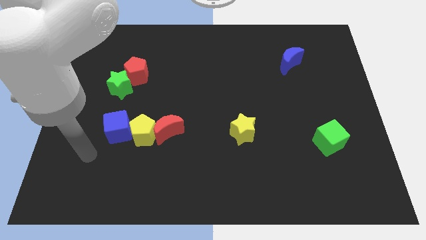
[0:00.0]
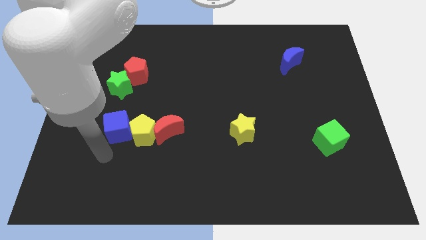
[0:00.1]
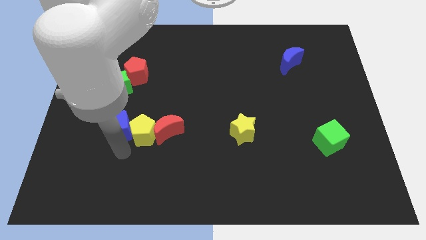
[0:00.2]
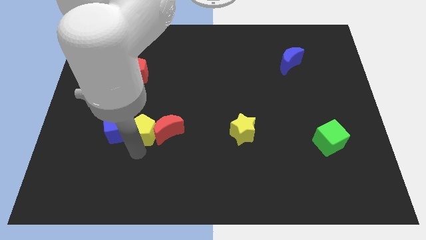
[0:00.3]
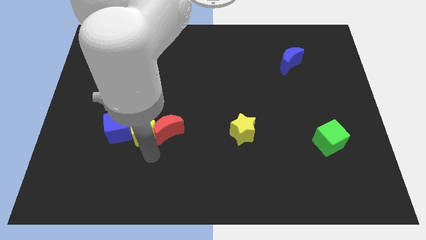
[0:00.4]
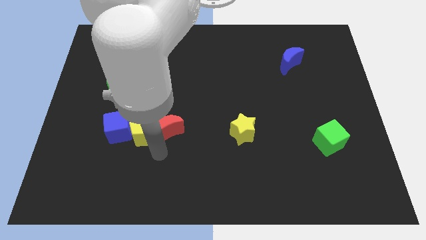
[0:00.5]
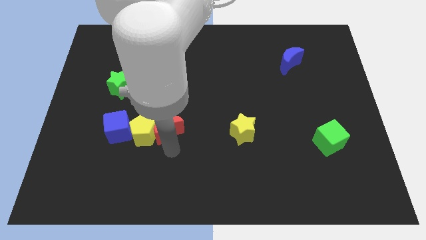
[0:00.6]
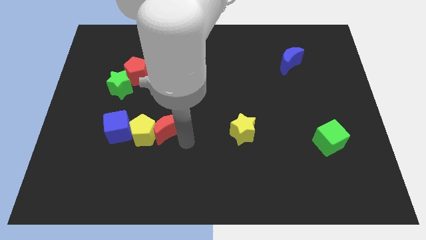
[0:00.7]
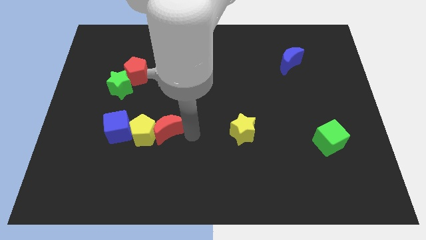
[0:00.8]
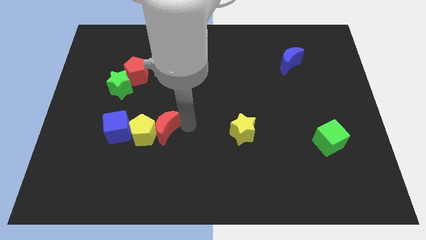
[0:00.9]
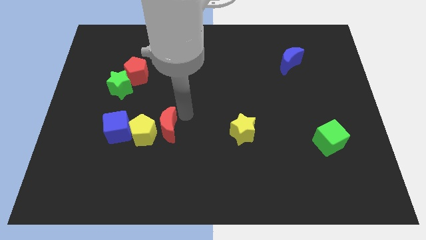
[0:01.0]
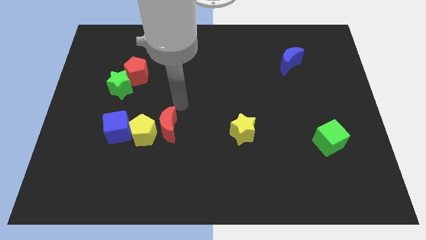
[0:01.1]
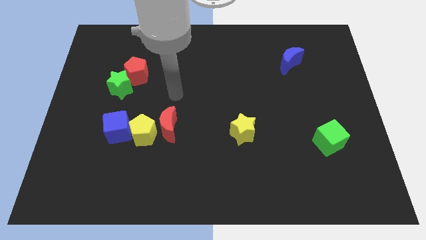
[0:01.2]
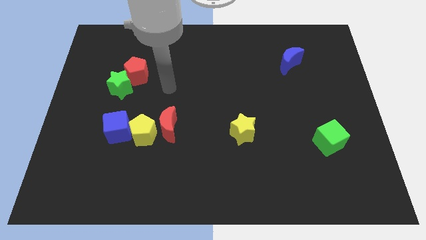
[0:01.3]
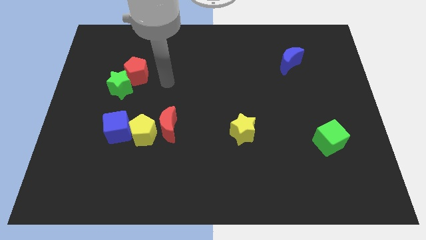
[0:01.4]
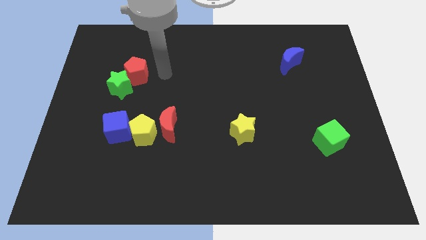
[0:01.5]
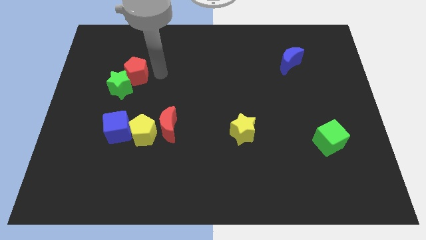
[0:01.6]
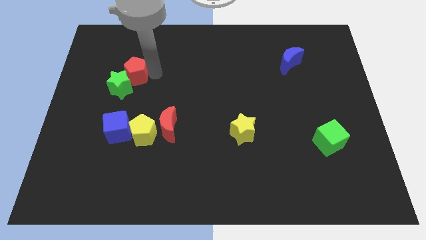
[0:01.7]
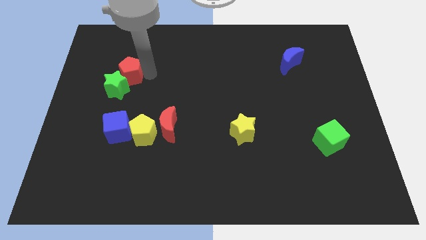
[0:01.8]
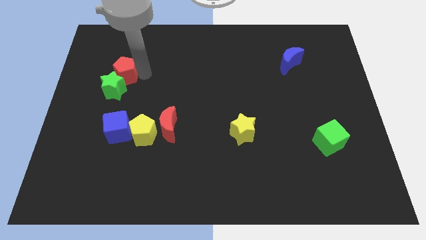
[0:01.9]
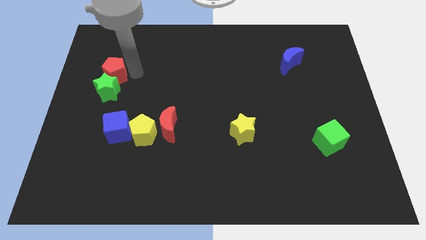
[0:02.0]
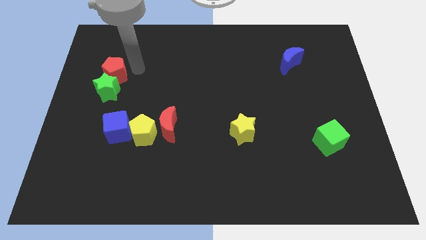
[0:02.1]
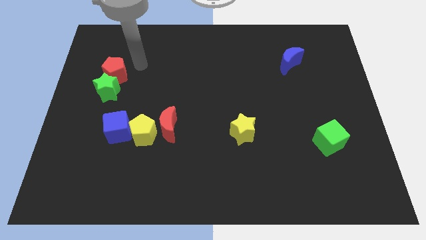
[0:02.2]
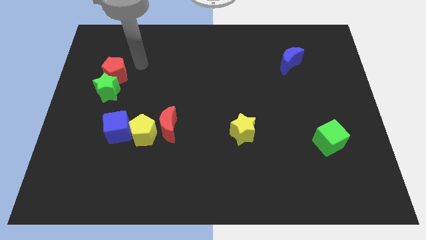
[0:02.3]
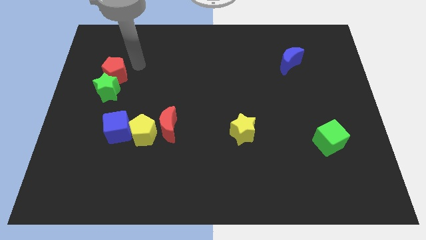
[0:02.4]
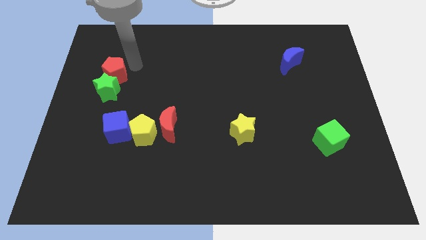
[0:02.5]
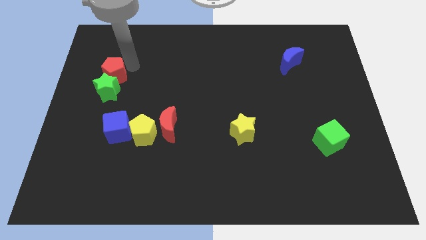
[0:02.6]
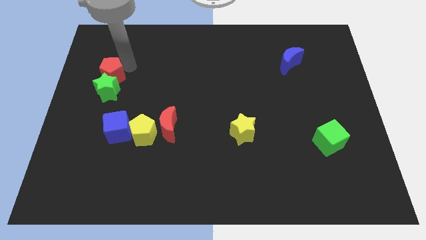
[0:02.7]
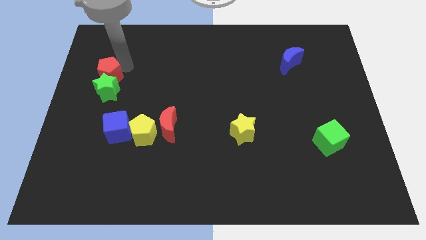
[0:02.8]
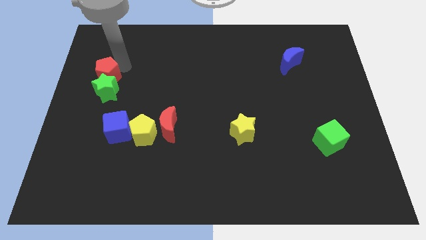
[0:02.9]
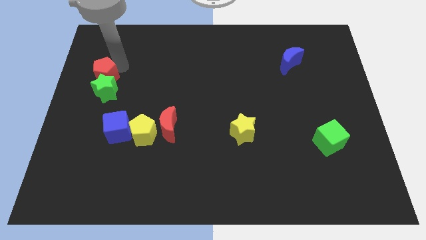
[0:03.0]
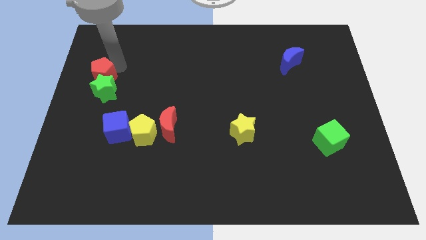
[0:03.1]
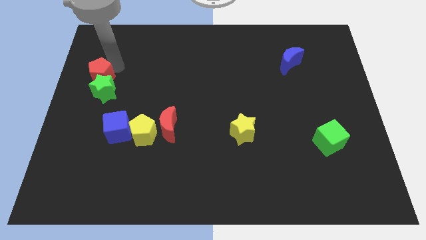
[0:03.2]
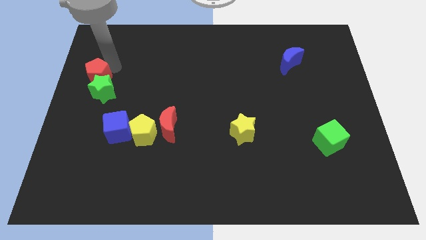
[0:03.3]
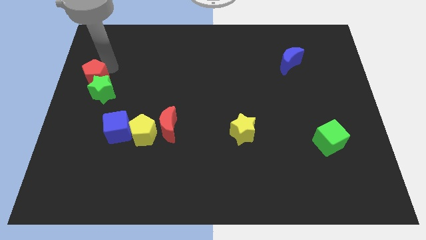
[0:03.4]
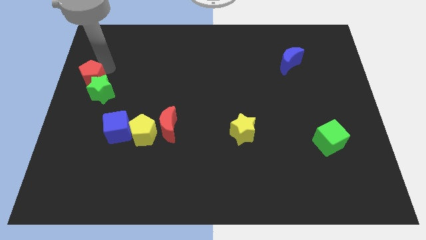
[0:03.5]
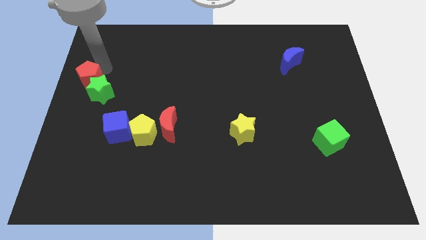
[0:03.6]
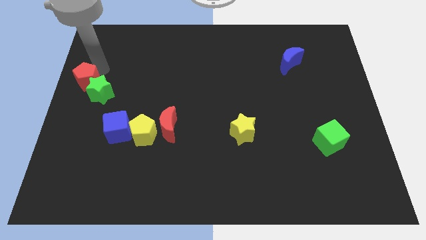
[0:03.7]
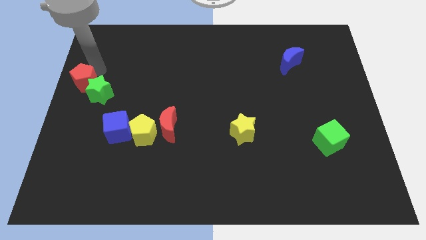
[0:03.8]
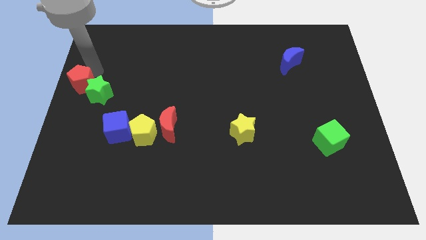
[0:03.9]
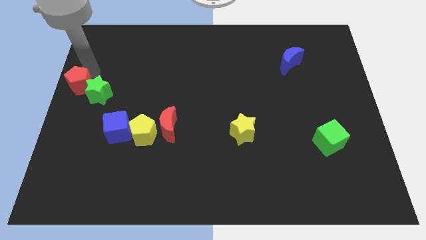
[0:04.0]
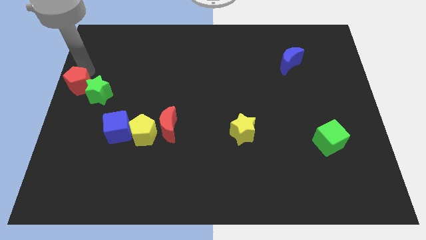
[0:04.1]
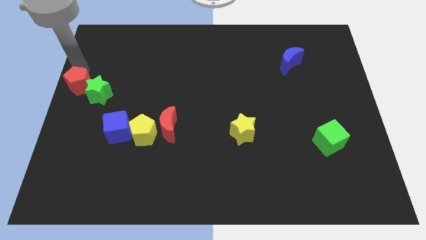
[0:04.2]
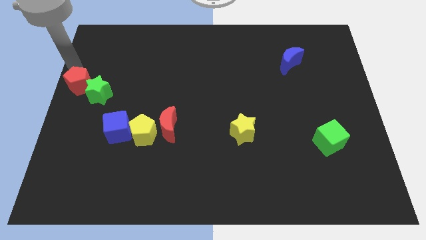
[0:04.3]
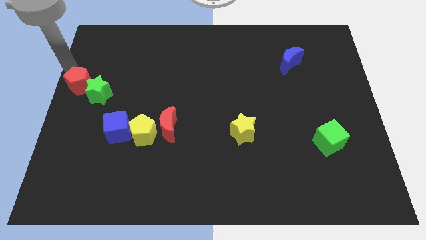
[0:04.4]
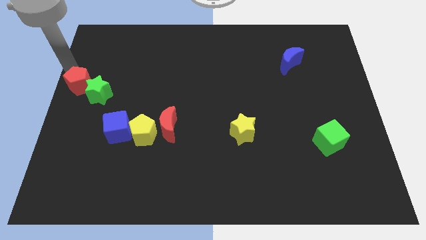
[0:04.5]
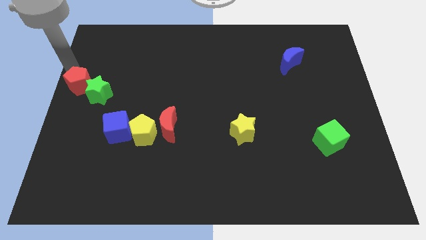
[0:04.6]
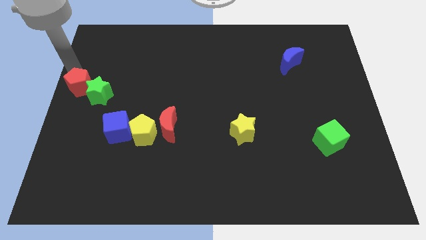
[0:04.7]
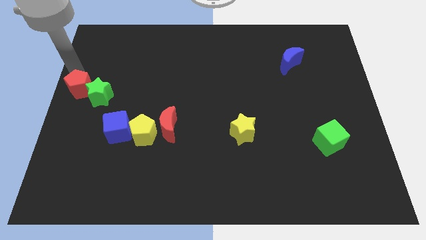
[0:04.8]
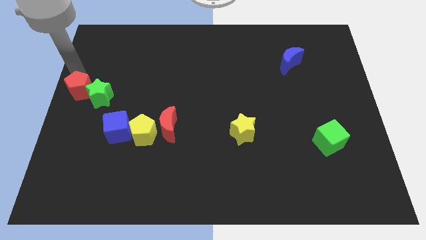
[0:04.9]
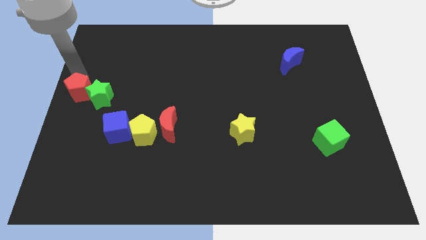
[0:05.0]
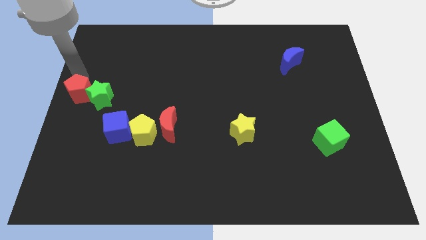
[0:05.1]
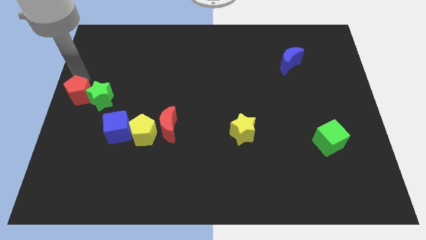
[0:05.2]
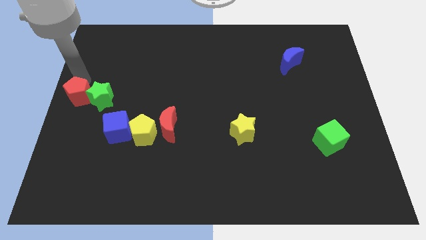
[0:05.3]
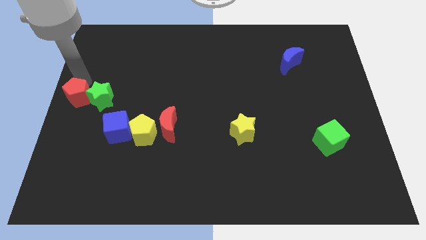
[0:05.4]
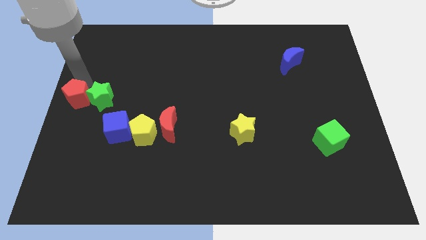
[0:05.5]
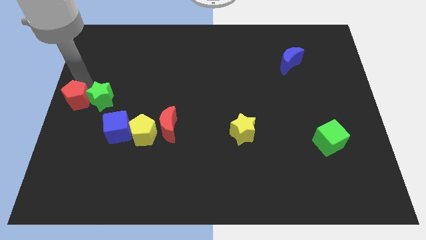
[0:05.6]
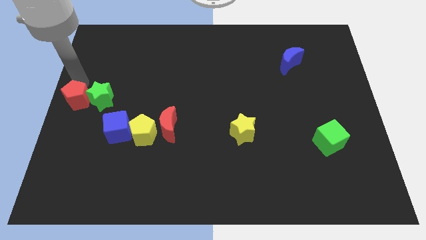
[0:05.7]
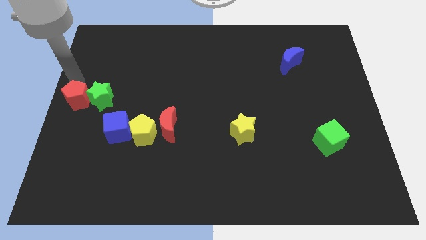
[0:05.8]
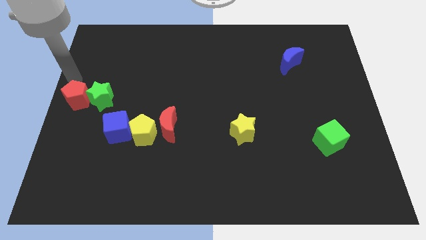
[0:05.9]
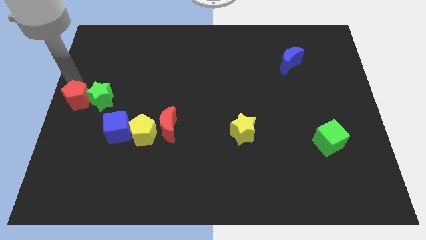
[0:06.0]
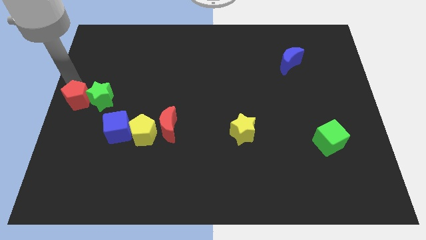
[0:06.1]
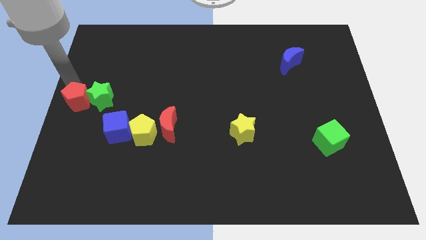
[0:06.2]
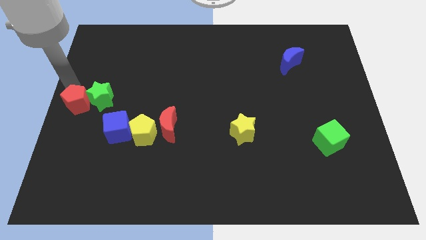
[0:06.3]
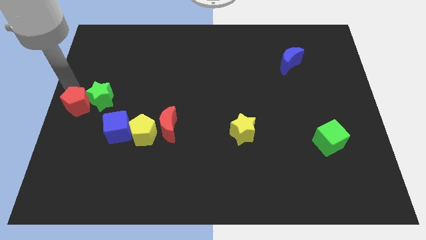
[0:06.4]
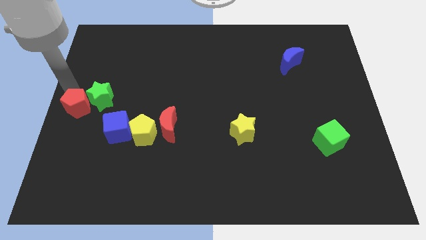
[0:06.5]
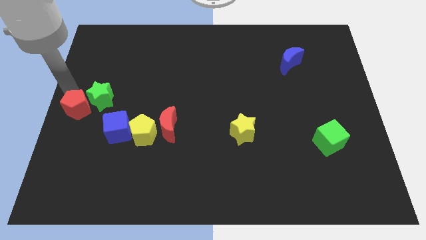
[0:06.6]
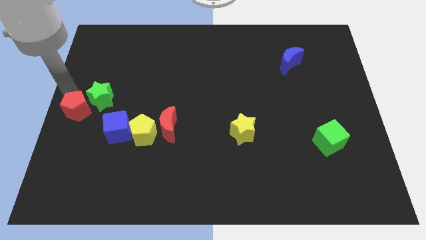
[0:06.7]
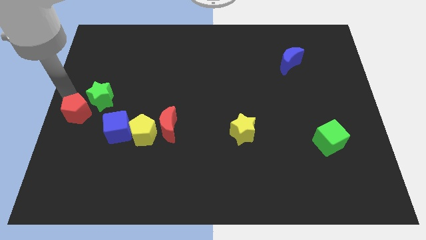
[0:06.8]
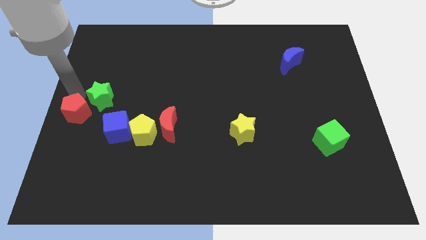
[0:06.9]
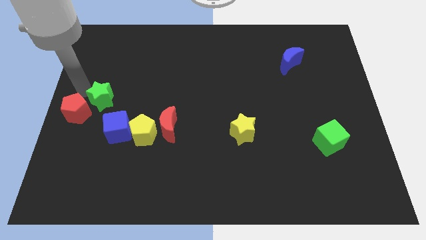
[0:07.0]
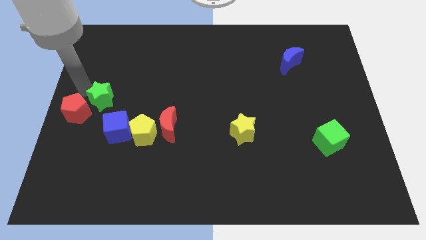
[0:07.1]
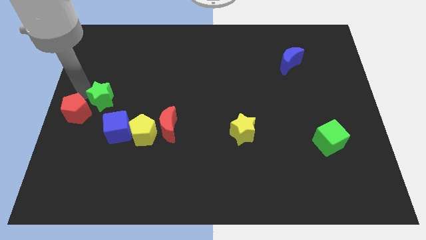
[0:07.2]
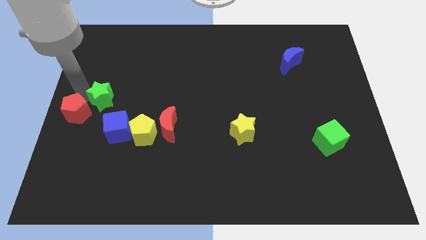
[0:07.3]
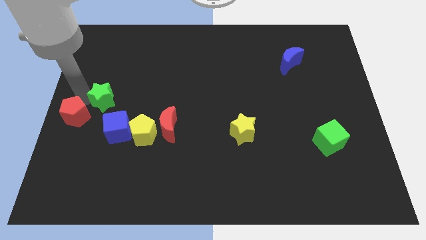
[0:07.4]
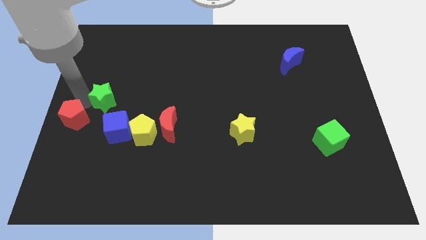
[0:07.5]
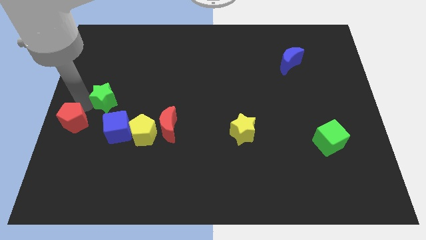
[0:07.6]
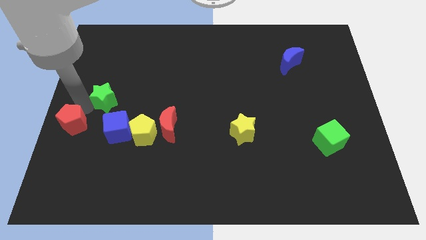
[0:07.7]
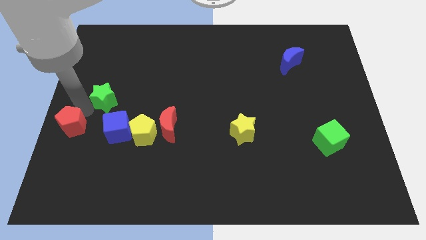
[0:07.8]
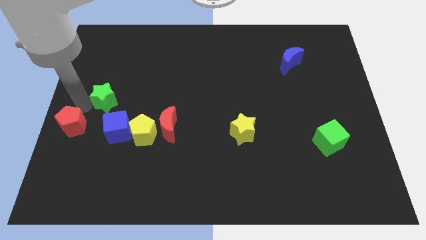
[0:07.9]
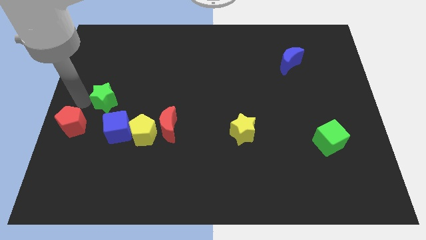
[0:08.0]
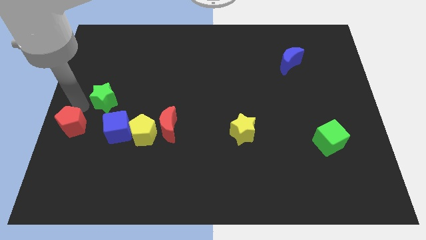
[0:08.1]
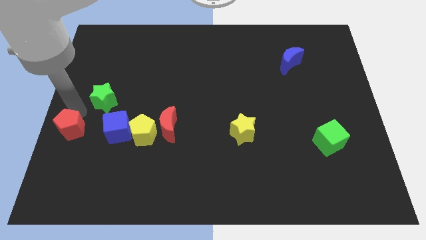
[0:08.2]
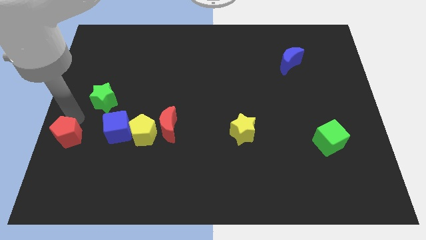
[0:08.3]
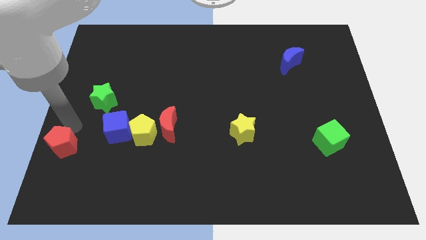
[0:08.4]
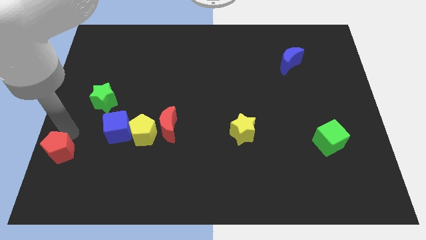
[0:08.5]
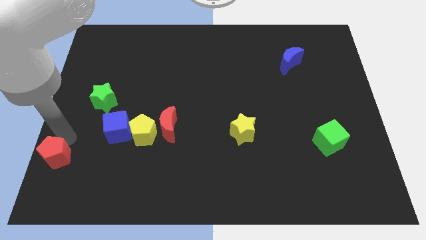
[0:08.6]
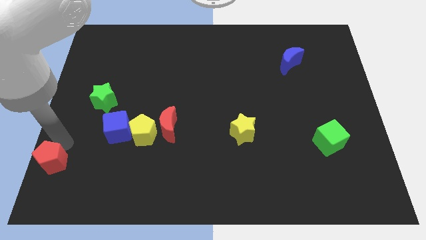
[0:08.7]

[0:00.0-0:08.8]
move the red pentagon to the lower left corner
